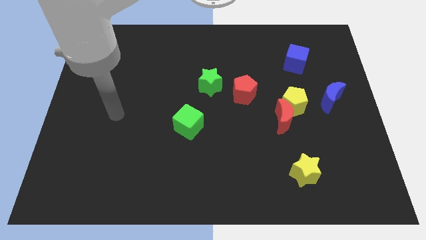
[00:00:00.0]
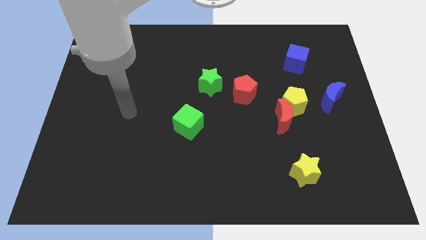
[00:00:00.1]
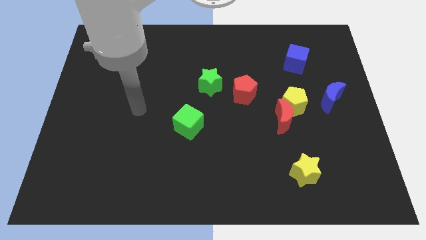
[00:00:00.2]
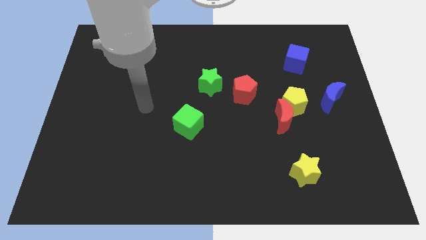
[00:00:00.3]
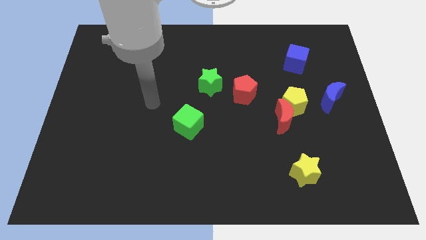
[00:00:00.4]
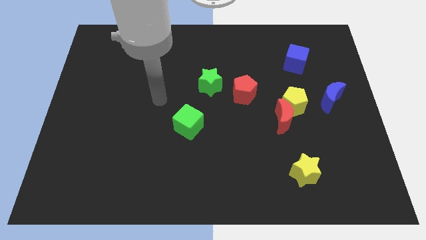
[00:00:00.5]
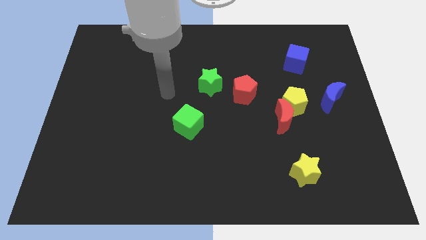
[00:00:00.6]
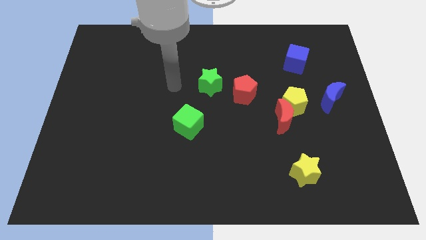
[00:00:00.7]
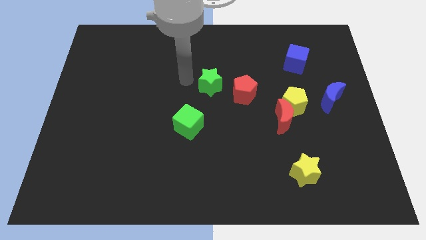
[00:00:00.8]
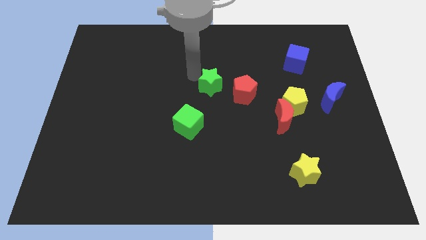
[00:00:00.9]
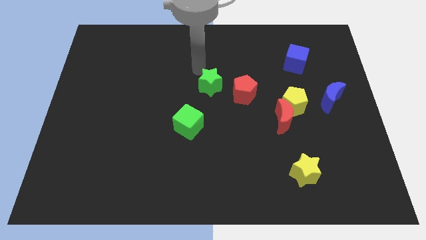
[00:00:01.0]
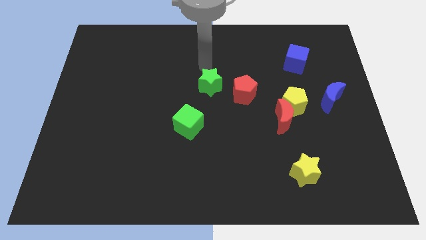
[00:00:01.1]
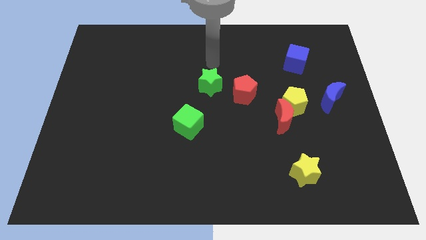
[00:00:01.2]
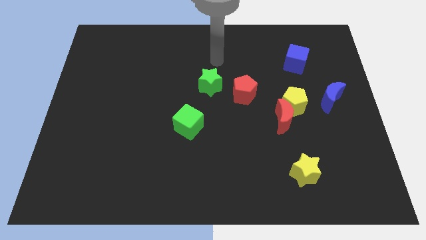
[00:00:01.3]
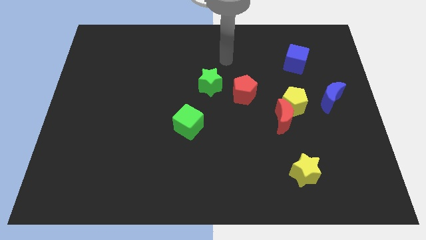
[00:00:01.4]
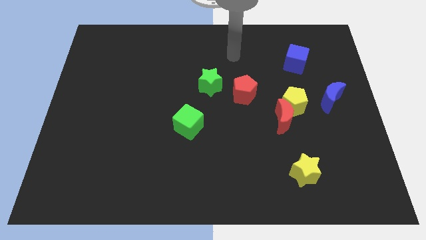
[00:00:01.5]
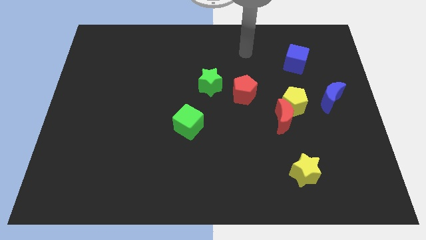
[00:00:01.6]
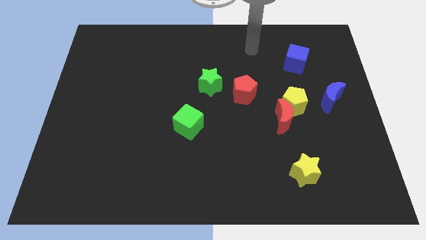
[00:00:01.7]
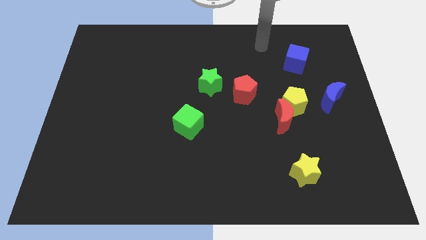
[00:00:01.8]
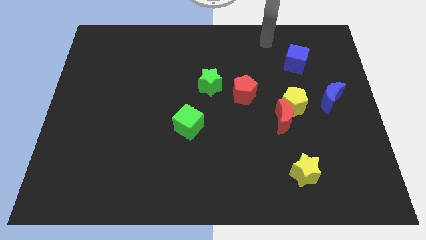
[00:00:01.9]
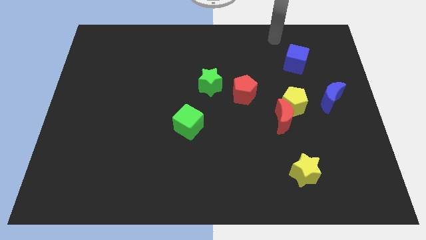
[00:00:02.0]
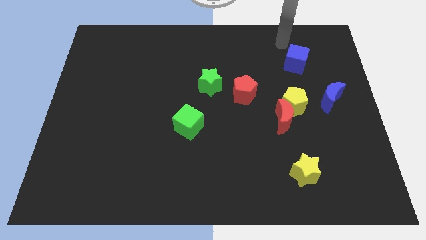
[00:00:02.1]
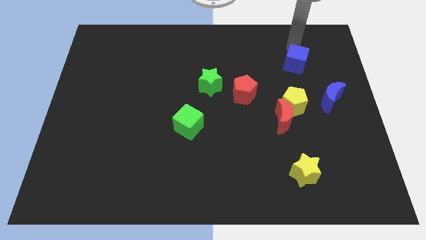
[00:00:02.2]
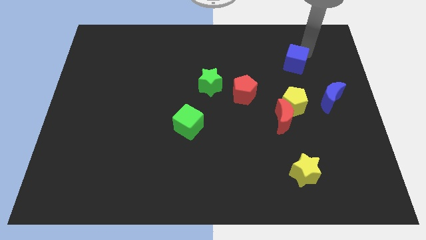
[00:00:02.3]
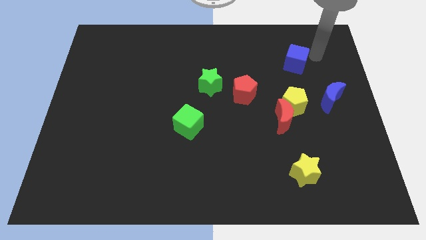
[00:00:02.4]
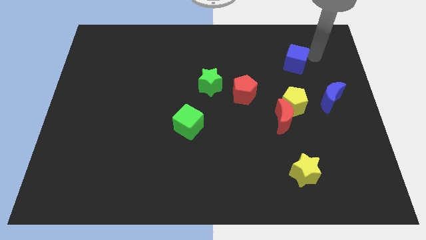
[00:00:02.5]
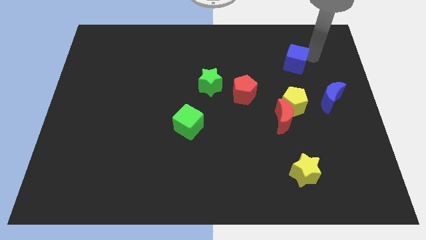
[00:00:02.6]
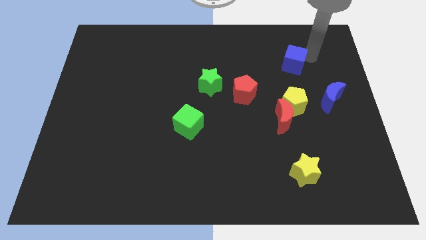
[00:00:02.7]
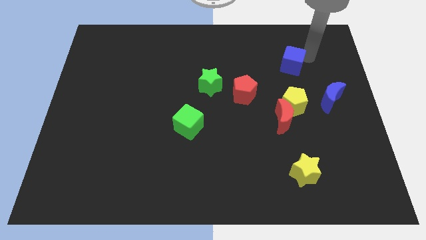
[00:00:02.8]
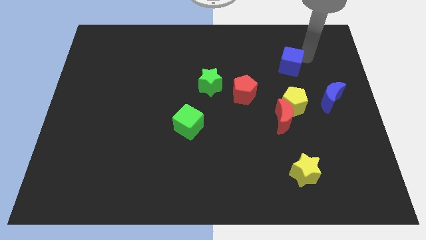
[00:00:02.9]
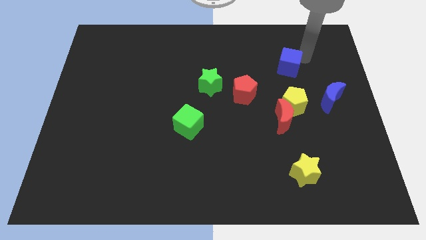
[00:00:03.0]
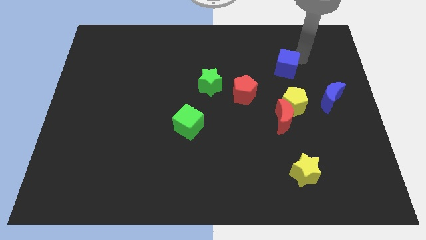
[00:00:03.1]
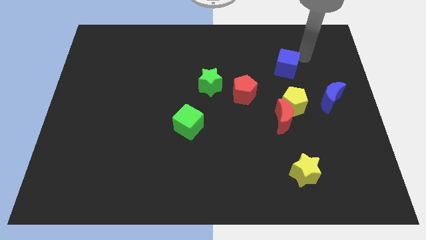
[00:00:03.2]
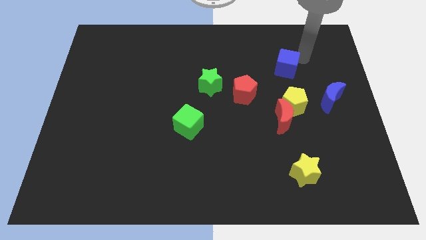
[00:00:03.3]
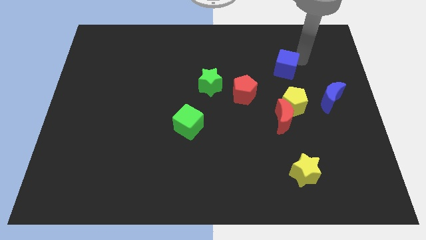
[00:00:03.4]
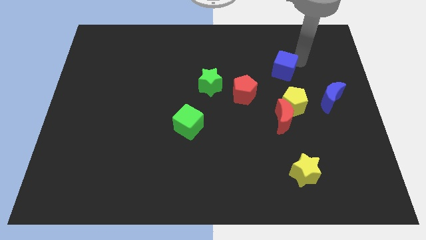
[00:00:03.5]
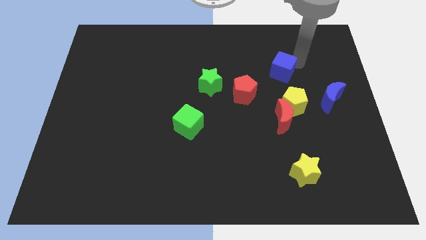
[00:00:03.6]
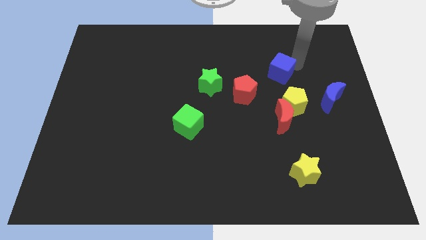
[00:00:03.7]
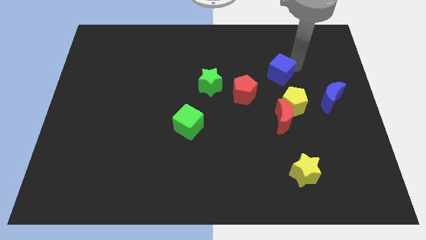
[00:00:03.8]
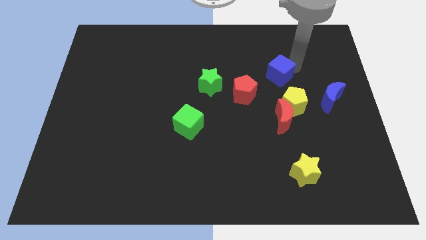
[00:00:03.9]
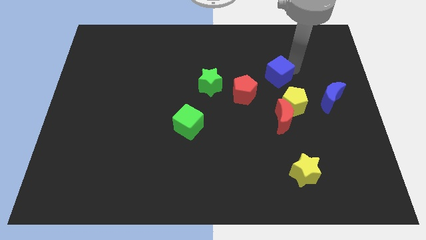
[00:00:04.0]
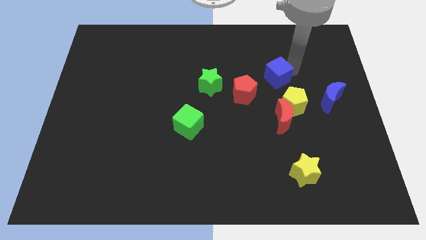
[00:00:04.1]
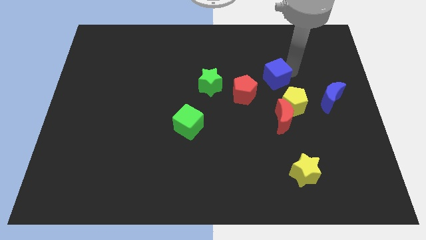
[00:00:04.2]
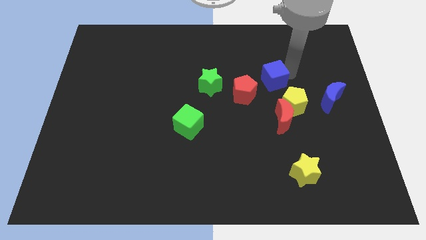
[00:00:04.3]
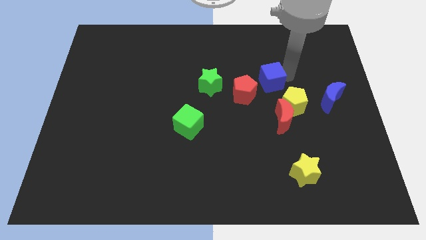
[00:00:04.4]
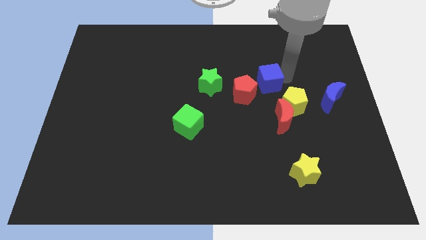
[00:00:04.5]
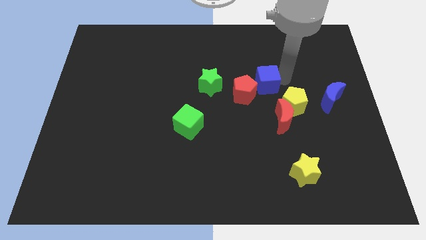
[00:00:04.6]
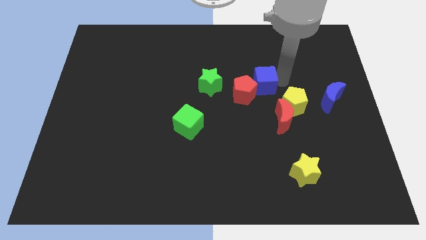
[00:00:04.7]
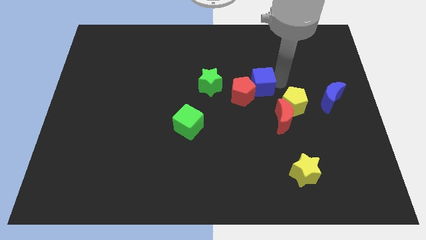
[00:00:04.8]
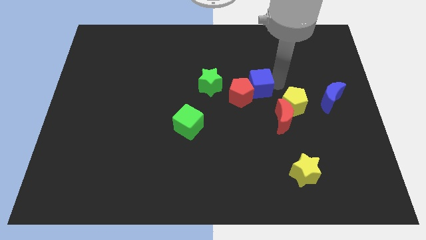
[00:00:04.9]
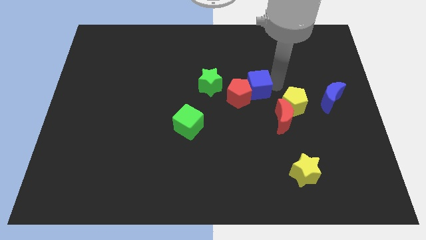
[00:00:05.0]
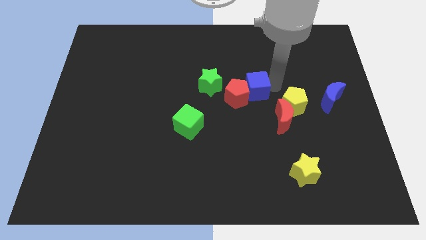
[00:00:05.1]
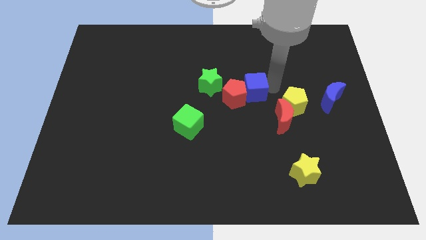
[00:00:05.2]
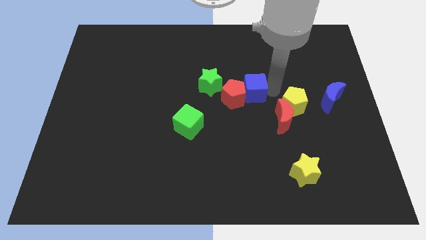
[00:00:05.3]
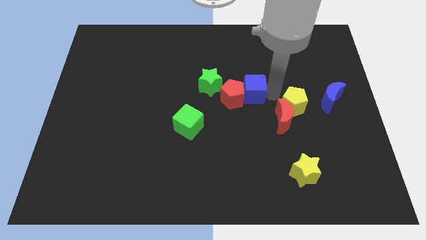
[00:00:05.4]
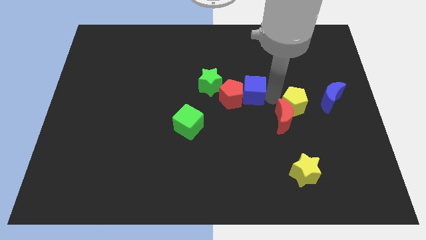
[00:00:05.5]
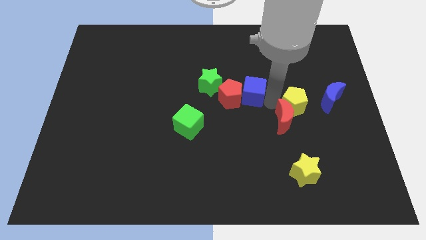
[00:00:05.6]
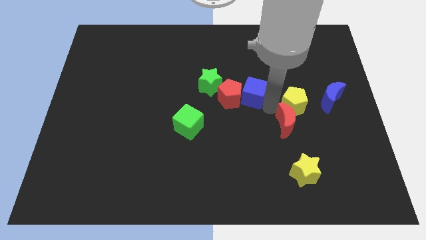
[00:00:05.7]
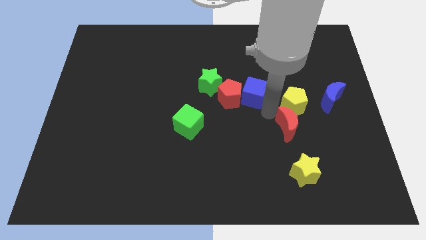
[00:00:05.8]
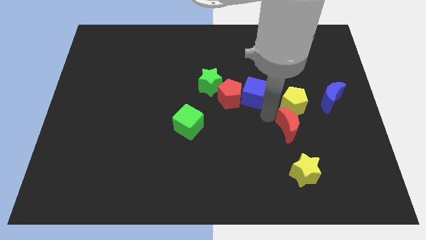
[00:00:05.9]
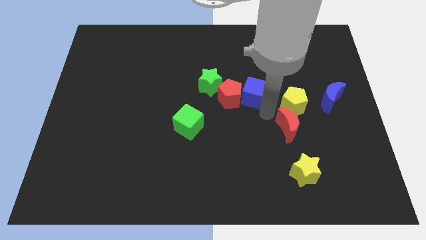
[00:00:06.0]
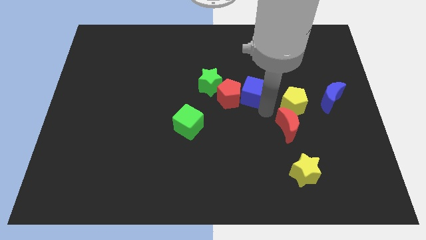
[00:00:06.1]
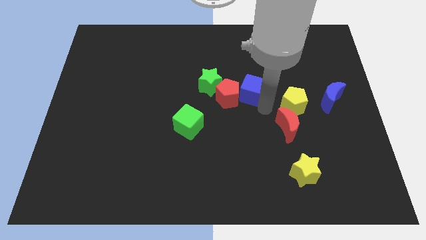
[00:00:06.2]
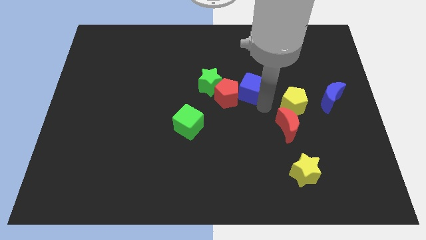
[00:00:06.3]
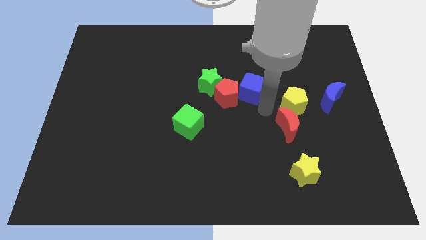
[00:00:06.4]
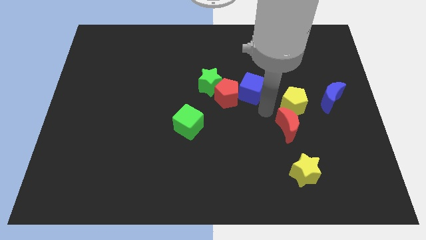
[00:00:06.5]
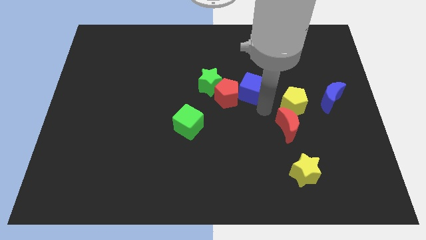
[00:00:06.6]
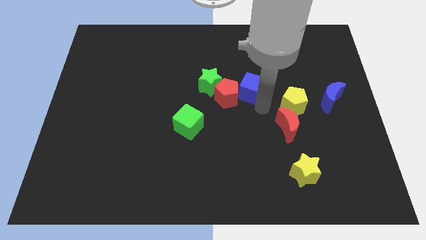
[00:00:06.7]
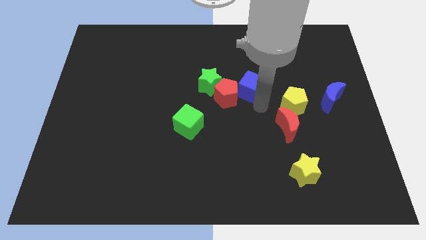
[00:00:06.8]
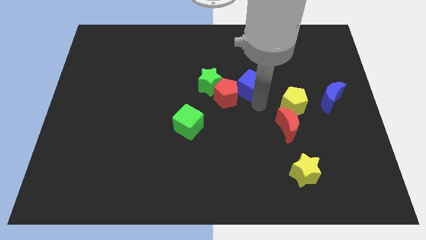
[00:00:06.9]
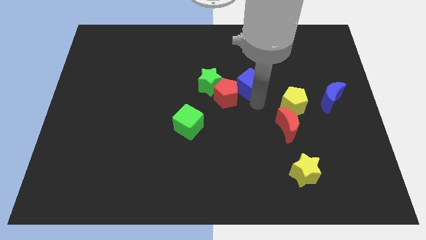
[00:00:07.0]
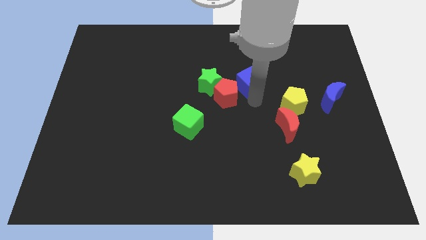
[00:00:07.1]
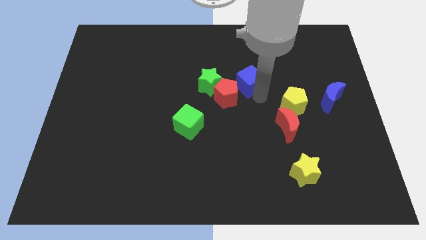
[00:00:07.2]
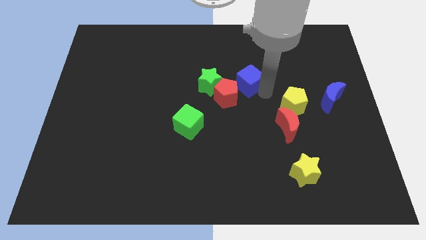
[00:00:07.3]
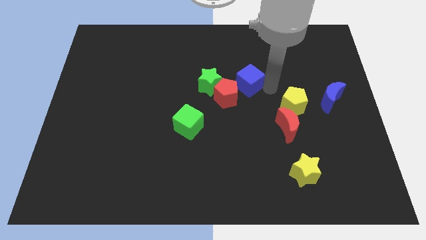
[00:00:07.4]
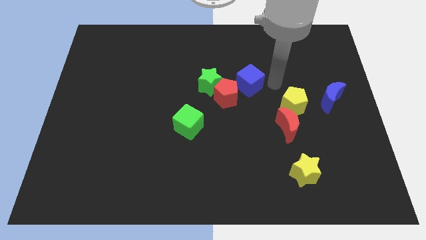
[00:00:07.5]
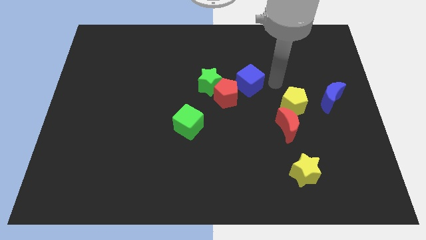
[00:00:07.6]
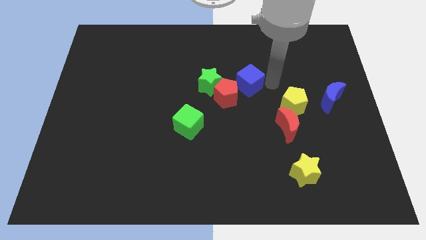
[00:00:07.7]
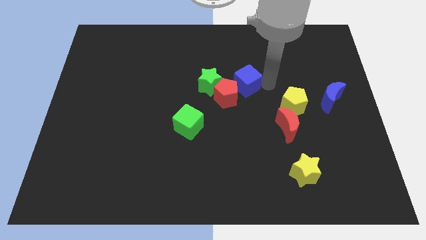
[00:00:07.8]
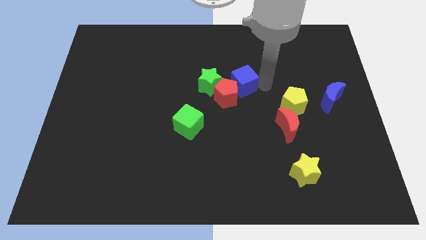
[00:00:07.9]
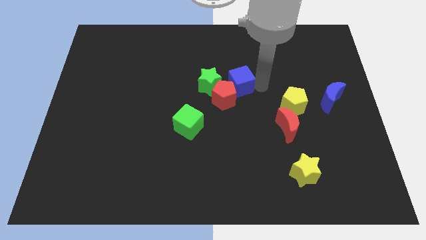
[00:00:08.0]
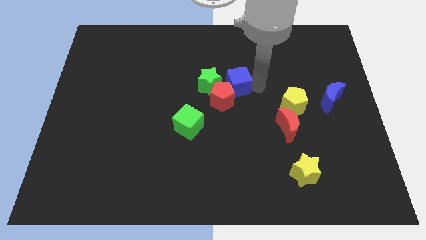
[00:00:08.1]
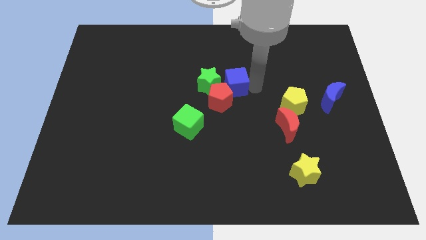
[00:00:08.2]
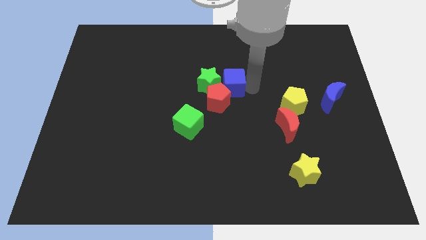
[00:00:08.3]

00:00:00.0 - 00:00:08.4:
put the blue cube to the green star
